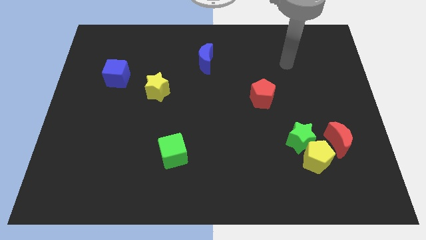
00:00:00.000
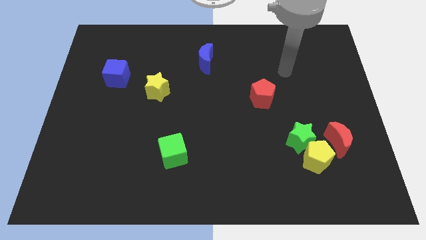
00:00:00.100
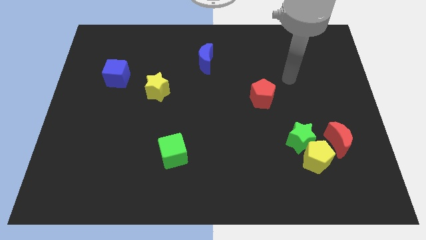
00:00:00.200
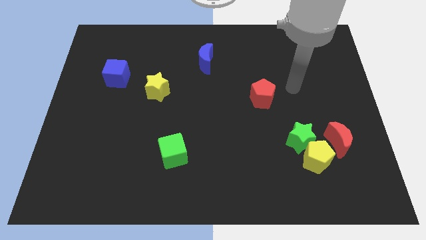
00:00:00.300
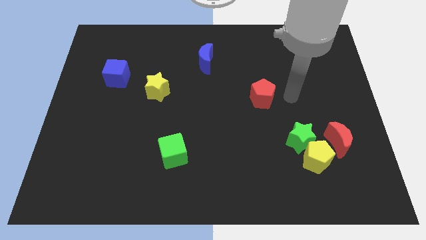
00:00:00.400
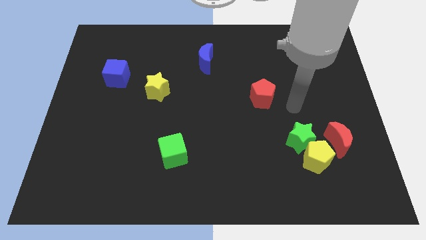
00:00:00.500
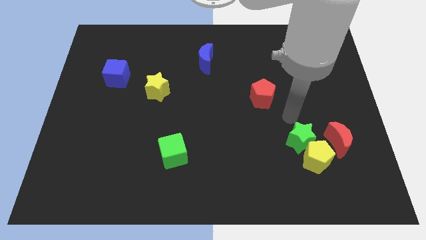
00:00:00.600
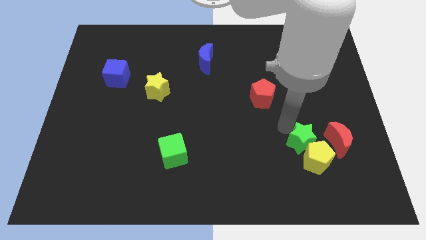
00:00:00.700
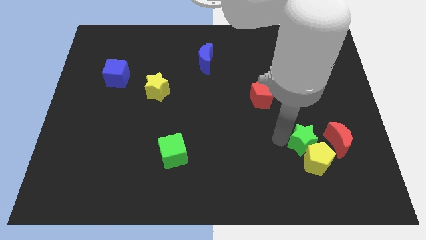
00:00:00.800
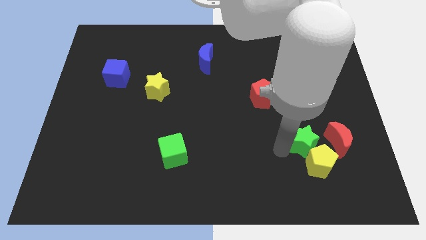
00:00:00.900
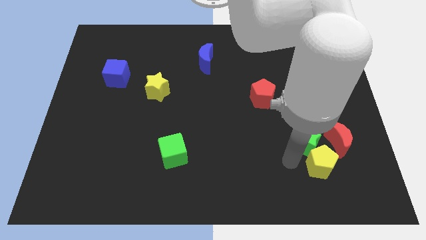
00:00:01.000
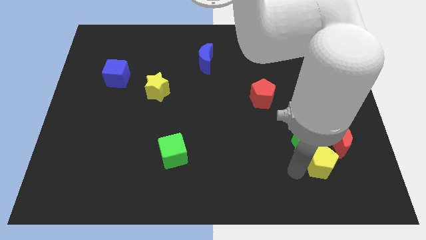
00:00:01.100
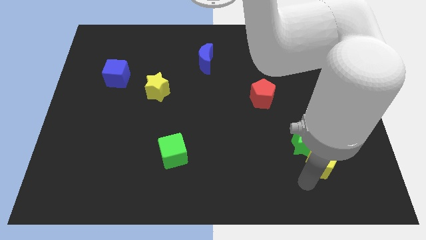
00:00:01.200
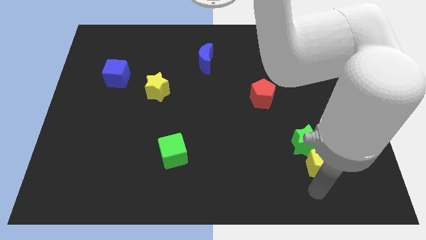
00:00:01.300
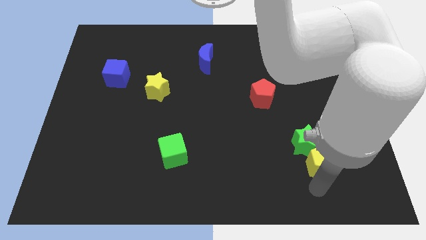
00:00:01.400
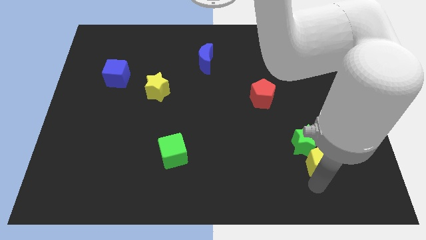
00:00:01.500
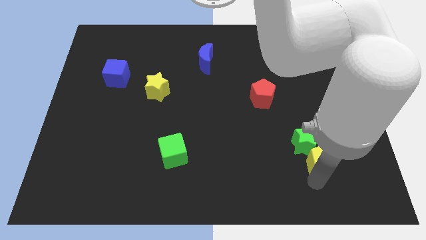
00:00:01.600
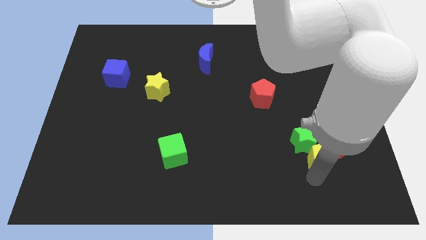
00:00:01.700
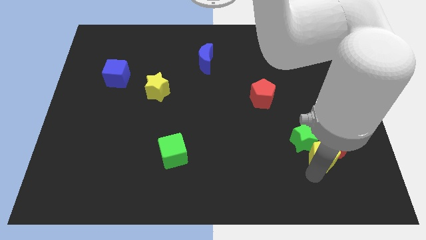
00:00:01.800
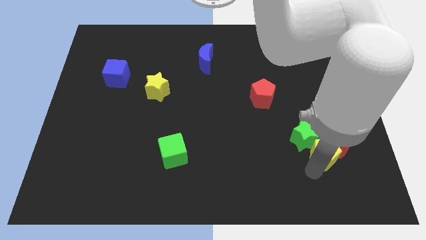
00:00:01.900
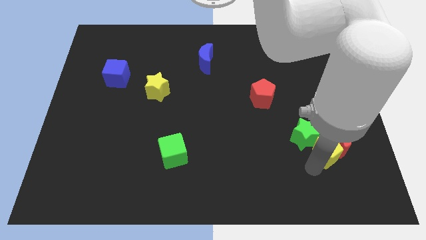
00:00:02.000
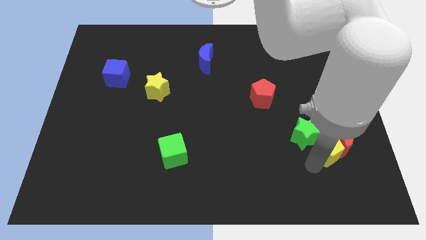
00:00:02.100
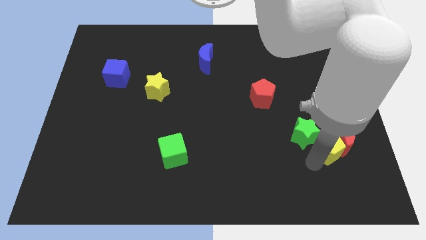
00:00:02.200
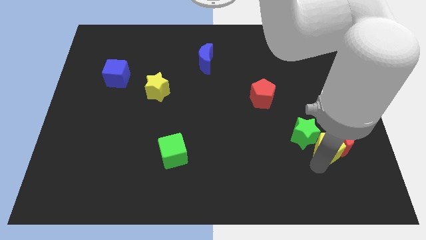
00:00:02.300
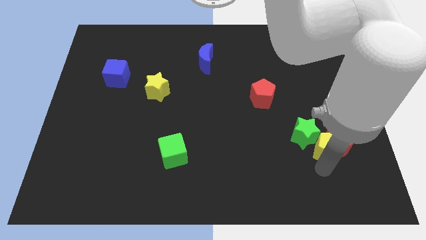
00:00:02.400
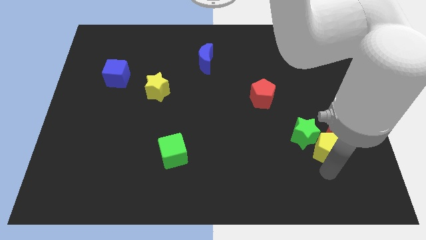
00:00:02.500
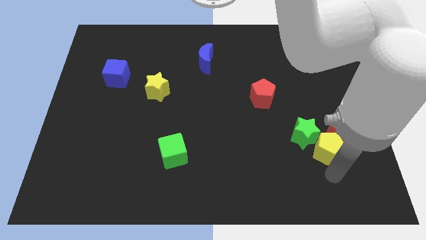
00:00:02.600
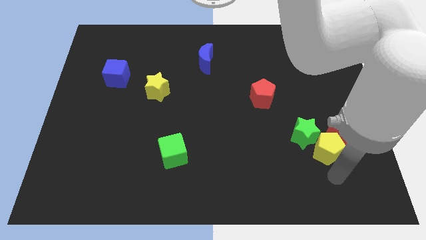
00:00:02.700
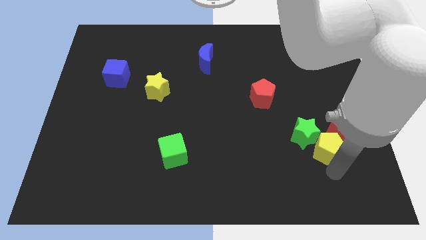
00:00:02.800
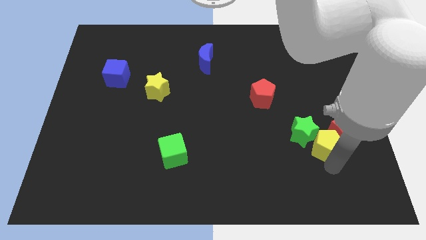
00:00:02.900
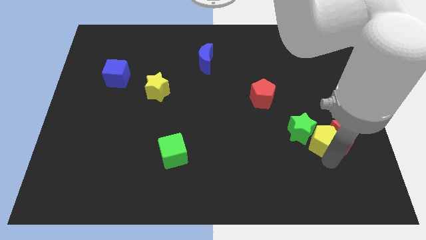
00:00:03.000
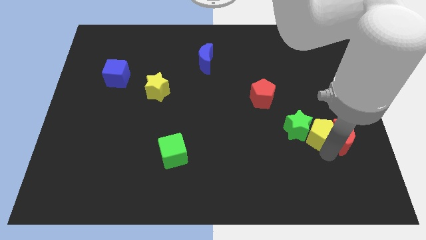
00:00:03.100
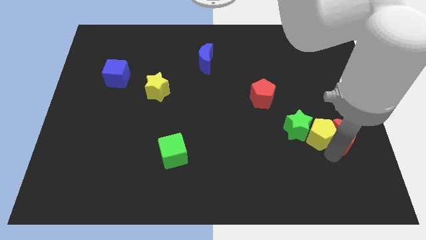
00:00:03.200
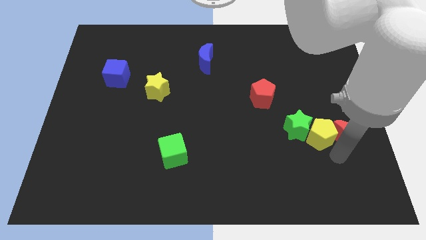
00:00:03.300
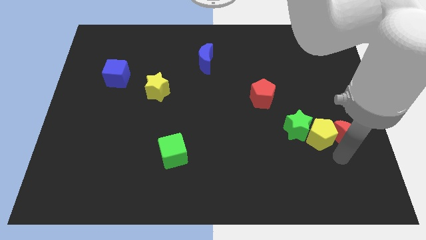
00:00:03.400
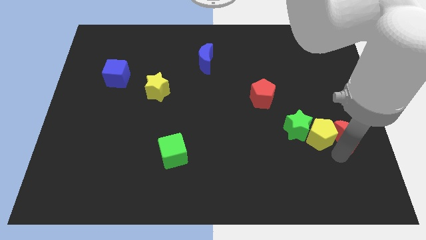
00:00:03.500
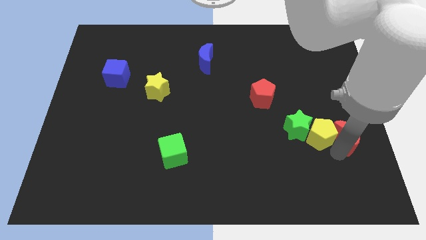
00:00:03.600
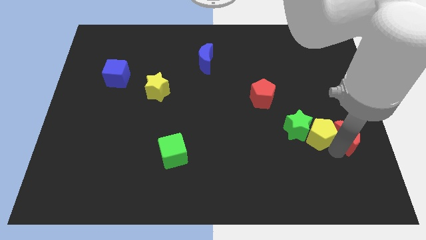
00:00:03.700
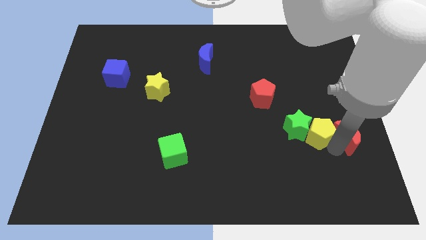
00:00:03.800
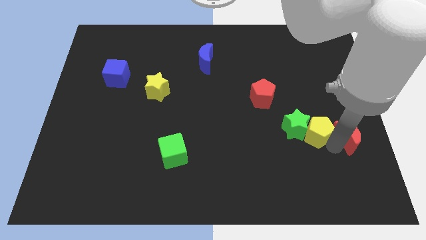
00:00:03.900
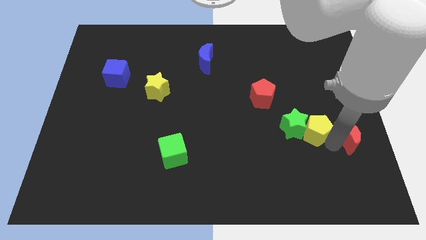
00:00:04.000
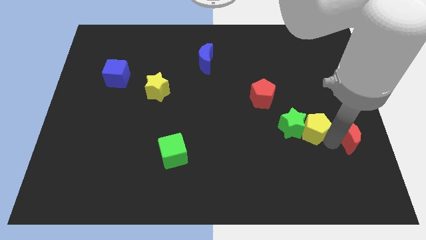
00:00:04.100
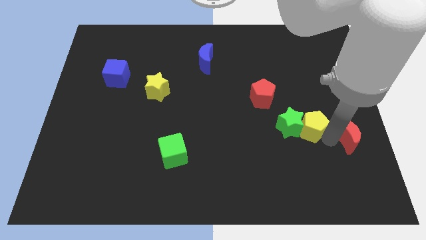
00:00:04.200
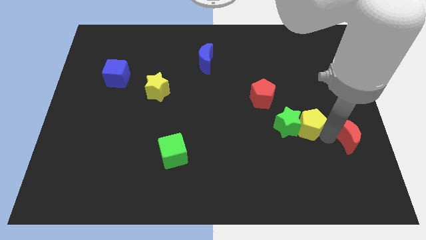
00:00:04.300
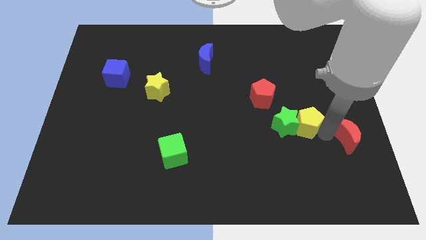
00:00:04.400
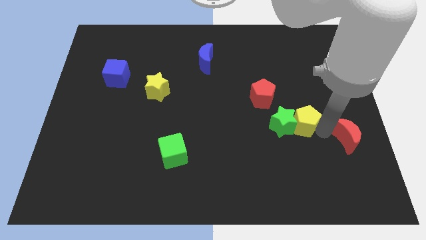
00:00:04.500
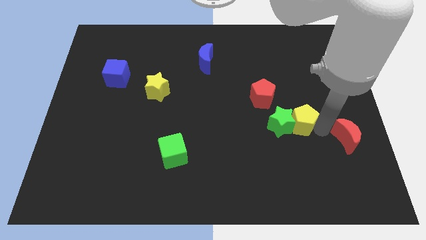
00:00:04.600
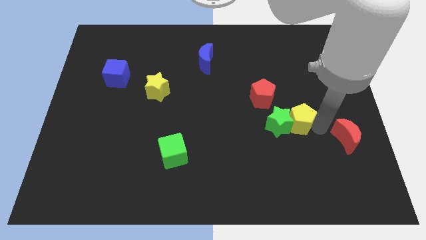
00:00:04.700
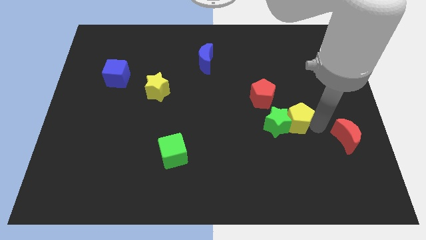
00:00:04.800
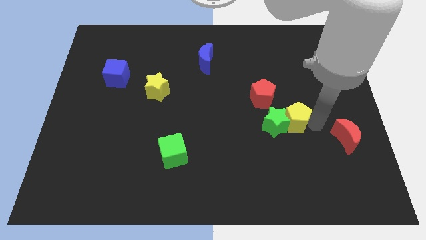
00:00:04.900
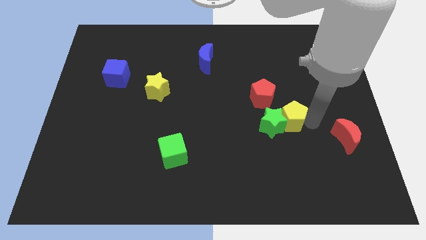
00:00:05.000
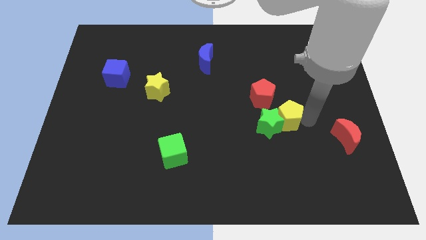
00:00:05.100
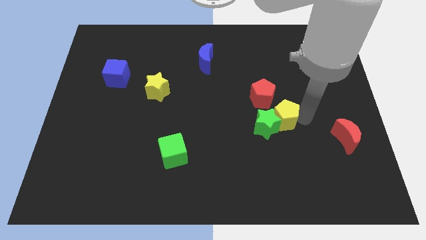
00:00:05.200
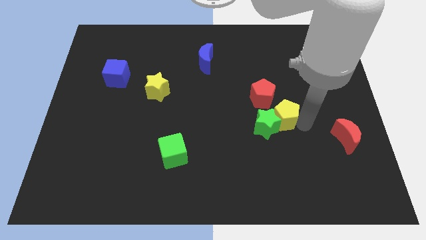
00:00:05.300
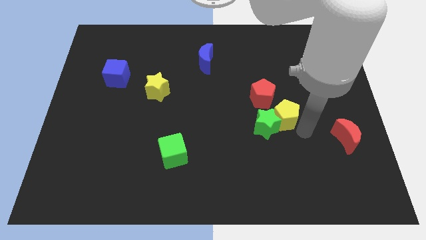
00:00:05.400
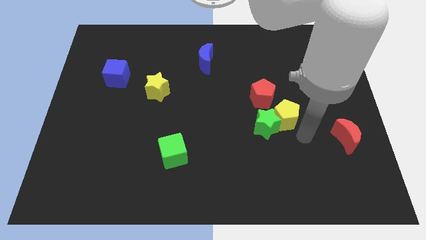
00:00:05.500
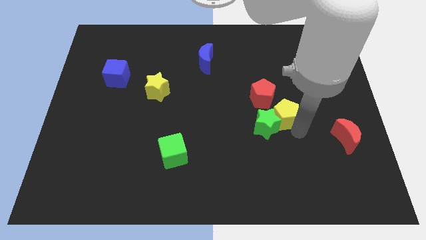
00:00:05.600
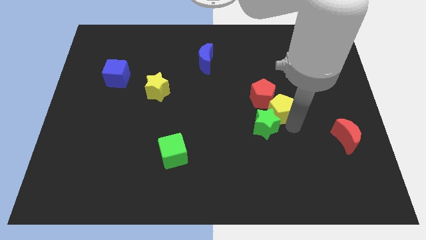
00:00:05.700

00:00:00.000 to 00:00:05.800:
move the yellow pentagon close to the red pentagon
